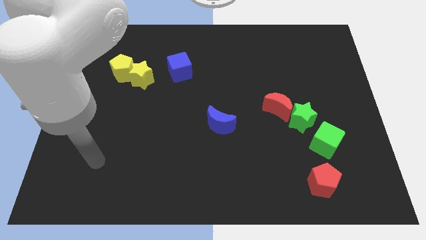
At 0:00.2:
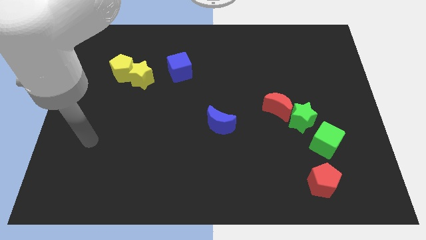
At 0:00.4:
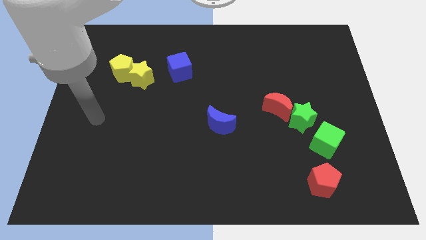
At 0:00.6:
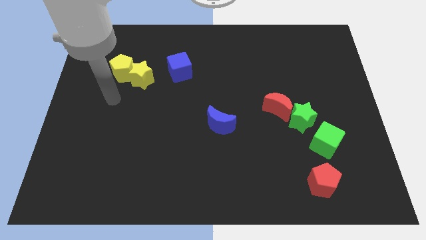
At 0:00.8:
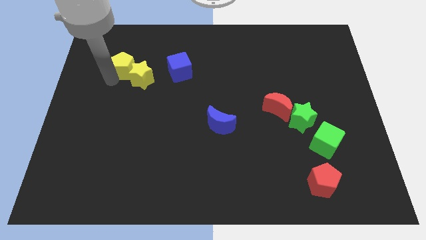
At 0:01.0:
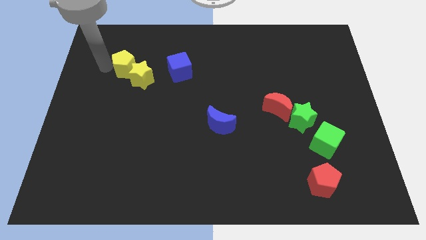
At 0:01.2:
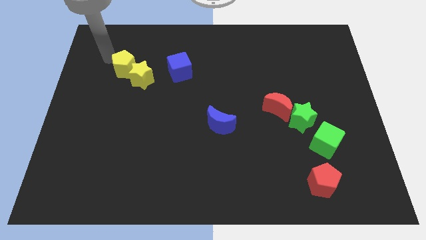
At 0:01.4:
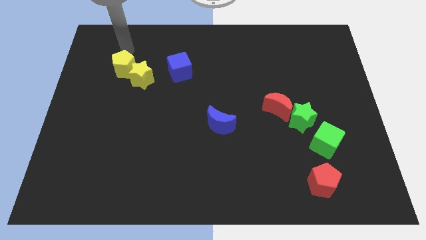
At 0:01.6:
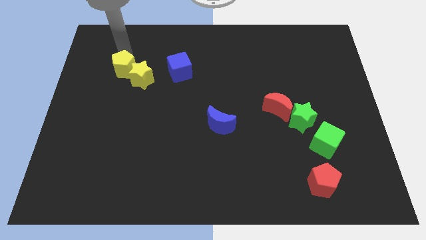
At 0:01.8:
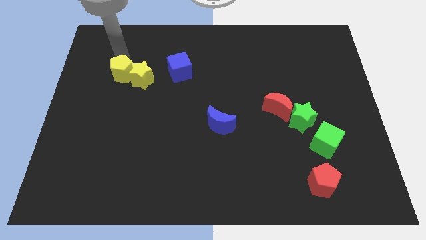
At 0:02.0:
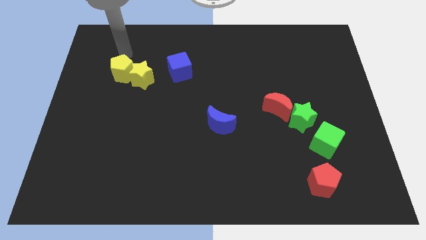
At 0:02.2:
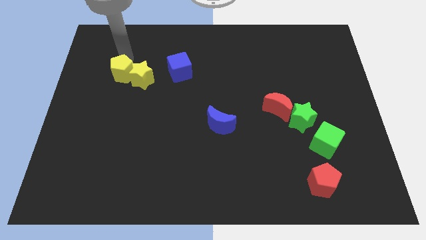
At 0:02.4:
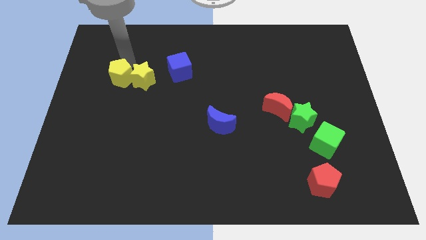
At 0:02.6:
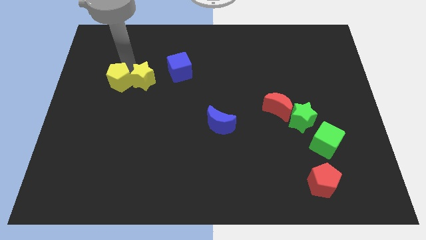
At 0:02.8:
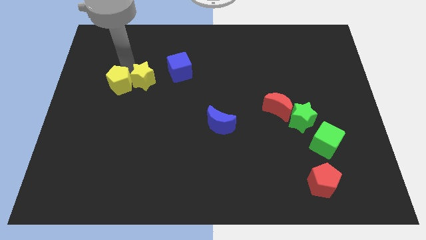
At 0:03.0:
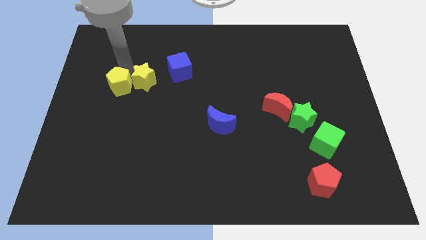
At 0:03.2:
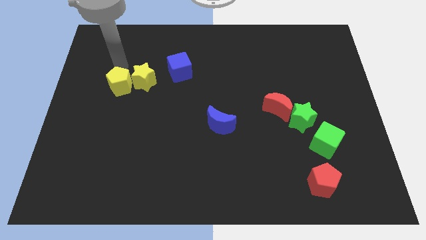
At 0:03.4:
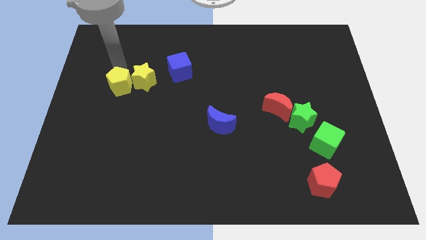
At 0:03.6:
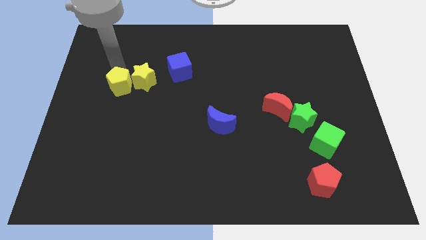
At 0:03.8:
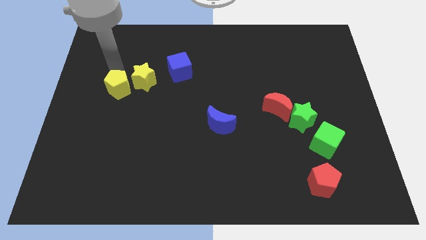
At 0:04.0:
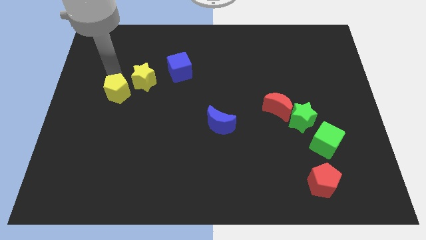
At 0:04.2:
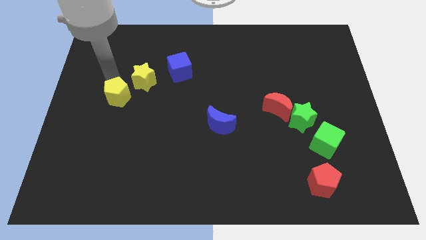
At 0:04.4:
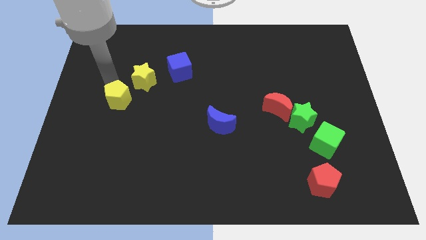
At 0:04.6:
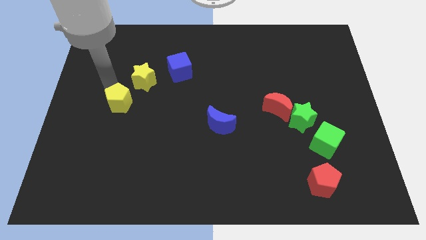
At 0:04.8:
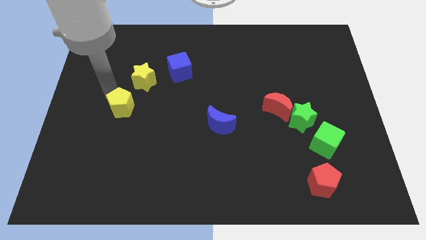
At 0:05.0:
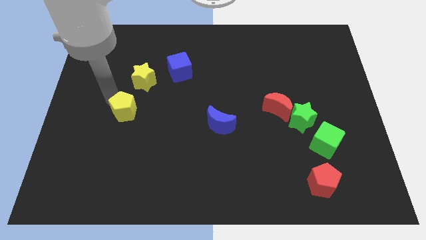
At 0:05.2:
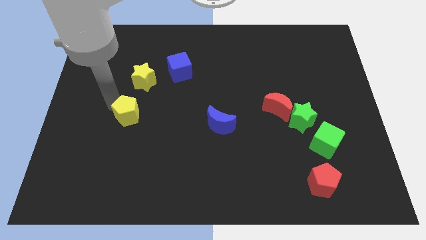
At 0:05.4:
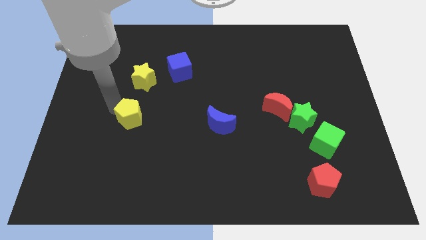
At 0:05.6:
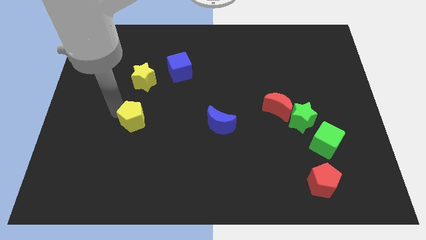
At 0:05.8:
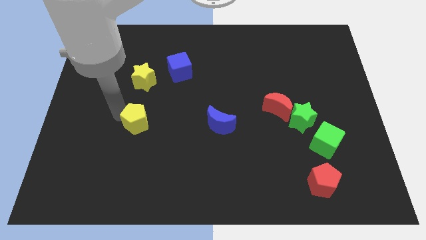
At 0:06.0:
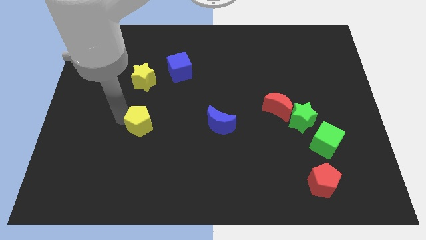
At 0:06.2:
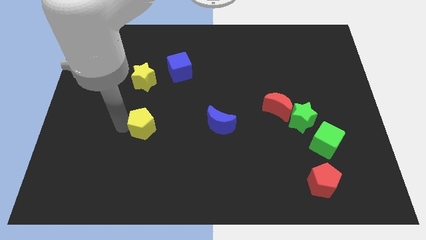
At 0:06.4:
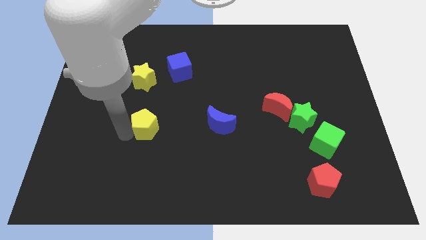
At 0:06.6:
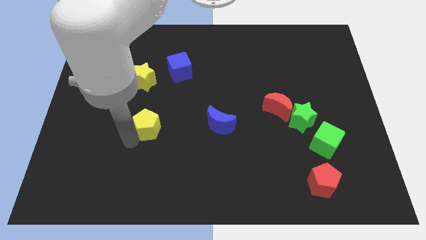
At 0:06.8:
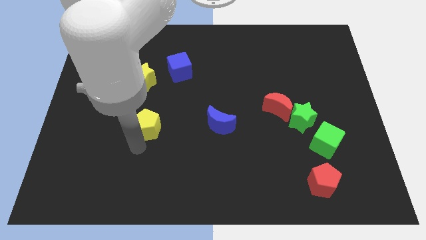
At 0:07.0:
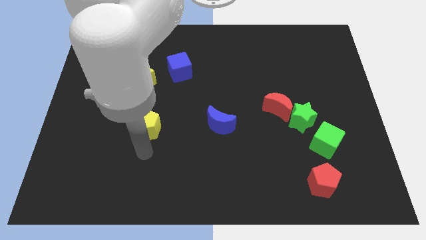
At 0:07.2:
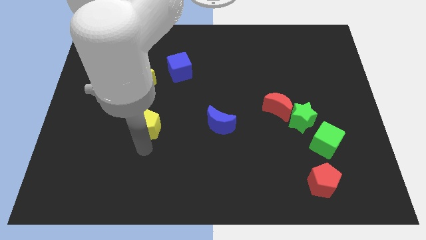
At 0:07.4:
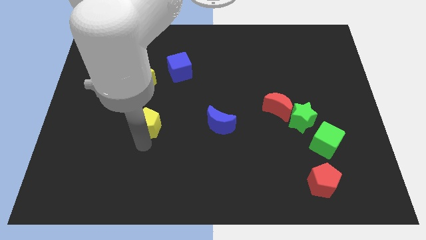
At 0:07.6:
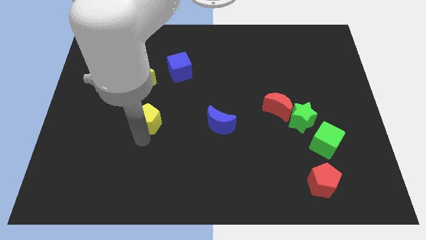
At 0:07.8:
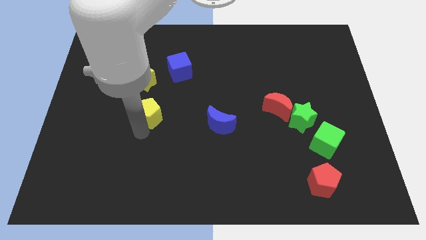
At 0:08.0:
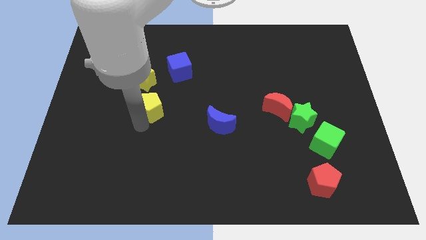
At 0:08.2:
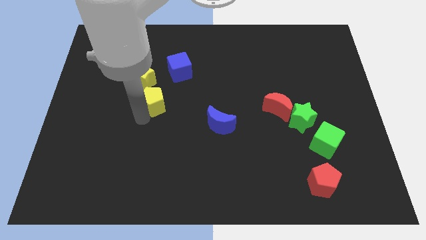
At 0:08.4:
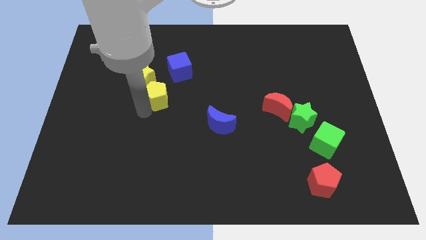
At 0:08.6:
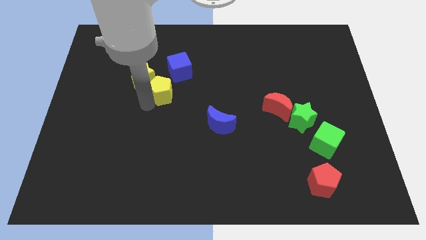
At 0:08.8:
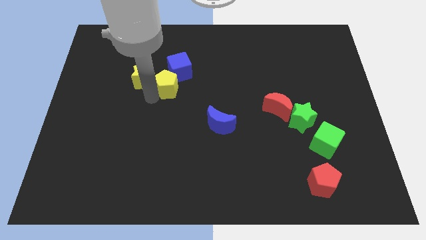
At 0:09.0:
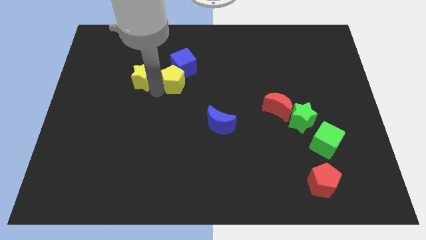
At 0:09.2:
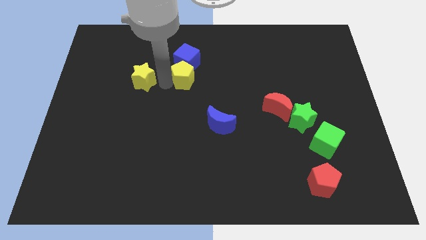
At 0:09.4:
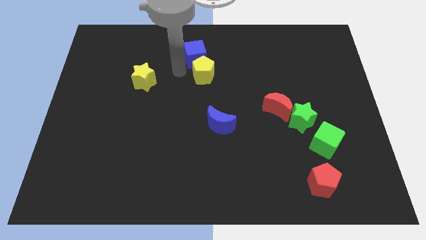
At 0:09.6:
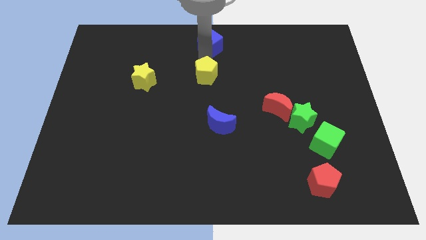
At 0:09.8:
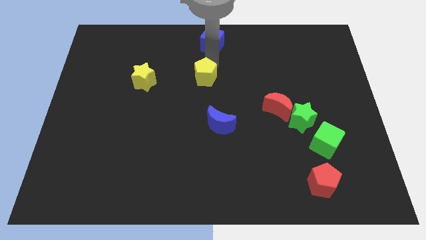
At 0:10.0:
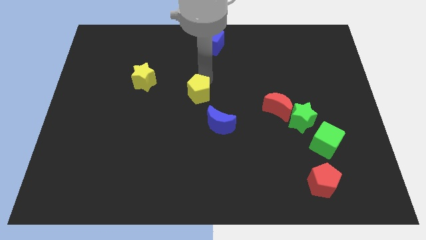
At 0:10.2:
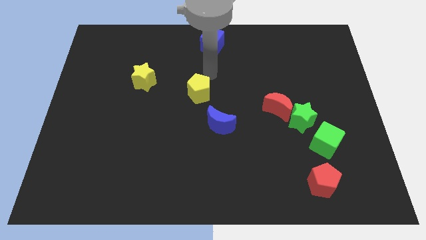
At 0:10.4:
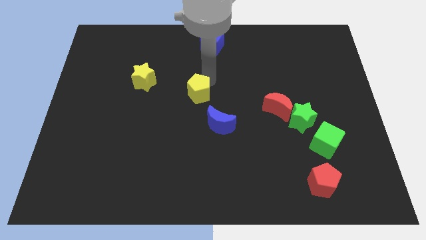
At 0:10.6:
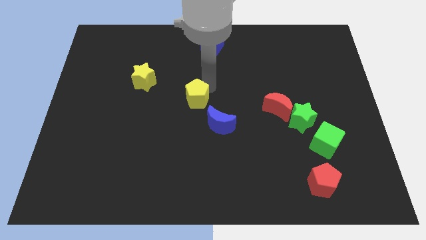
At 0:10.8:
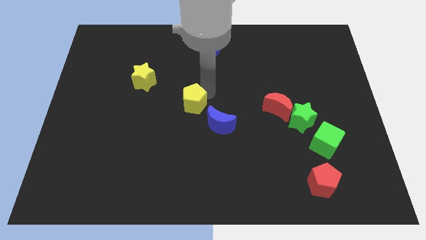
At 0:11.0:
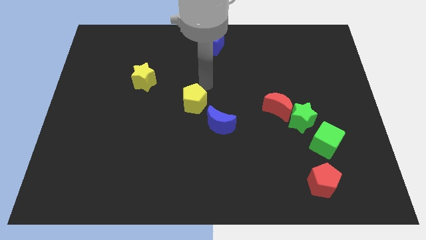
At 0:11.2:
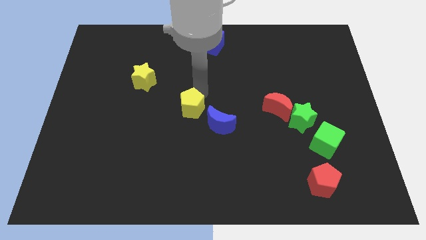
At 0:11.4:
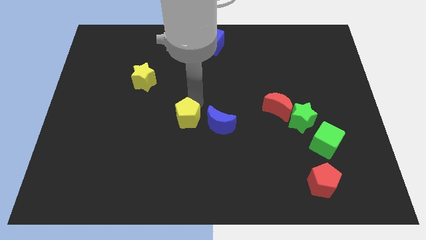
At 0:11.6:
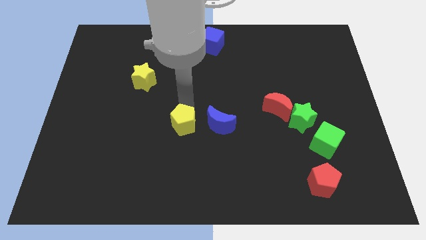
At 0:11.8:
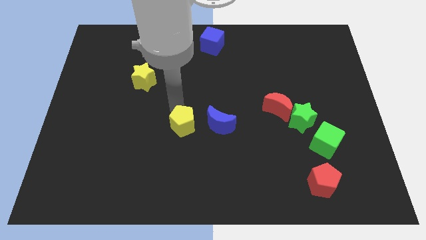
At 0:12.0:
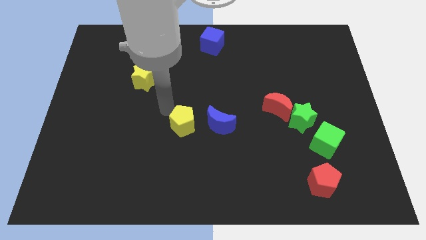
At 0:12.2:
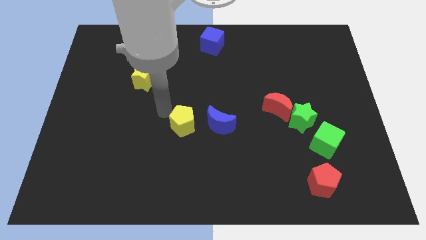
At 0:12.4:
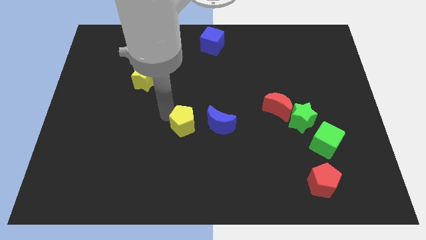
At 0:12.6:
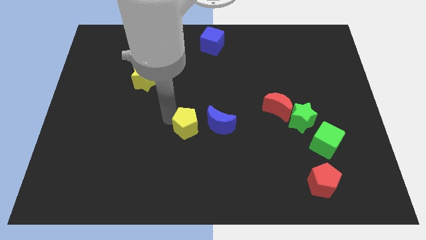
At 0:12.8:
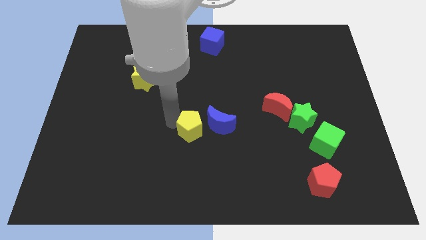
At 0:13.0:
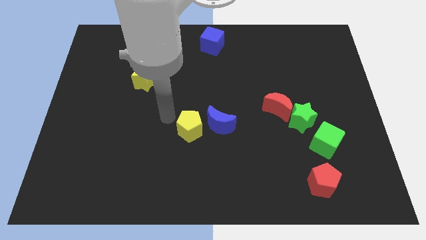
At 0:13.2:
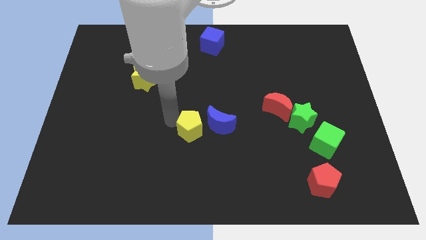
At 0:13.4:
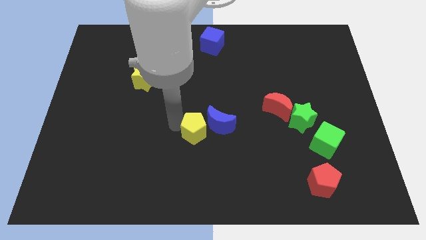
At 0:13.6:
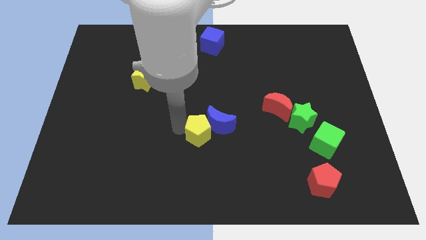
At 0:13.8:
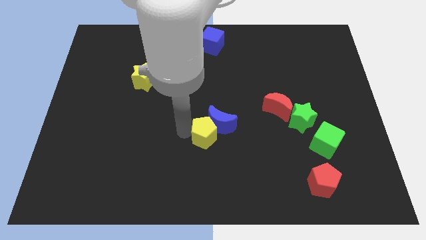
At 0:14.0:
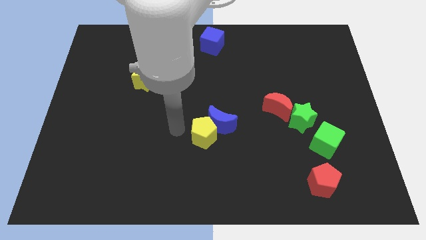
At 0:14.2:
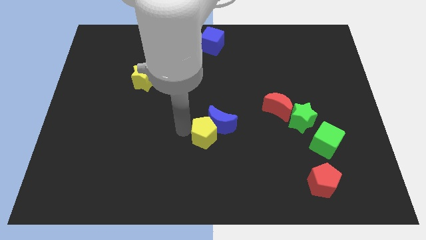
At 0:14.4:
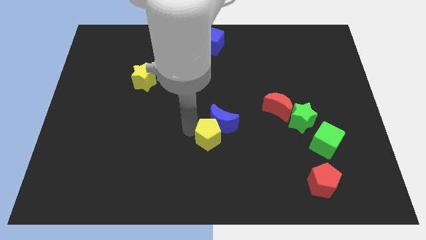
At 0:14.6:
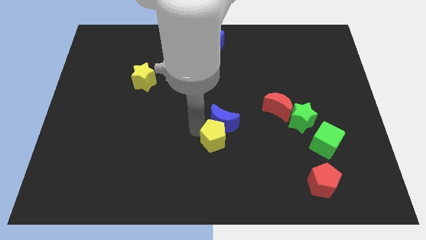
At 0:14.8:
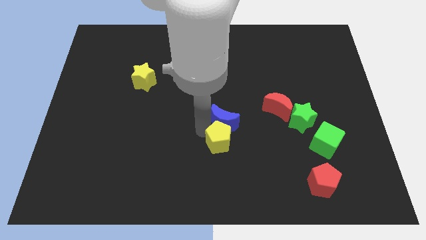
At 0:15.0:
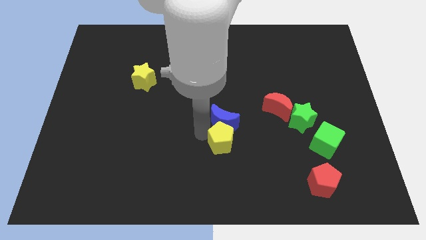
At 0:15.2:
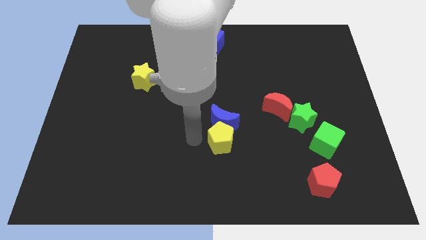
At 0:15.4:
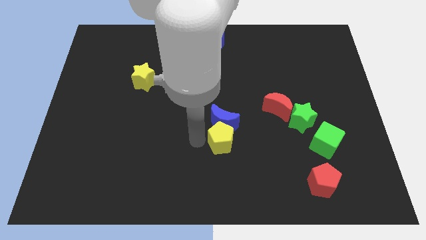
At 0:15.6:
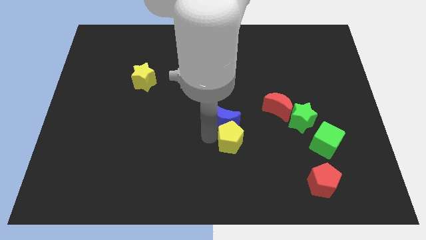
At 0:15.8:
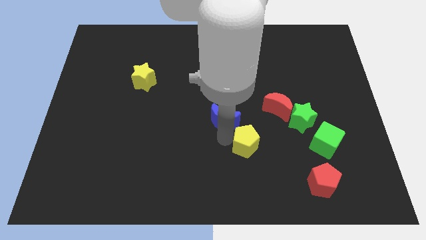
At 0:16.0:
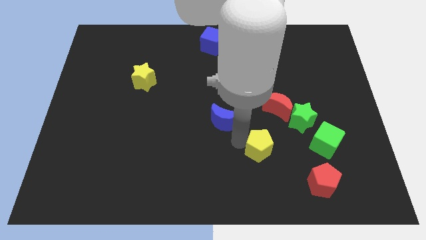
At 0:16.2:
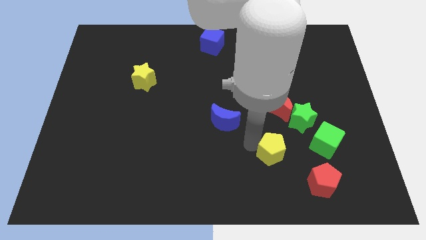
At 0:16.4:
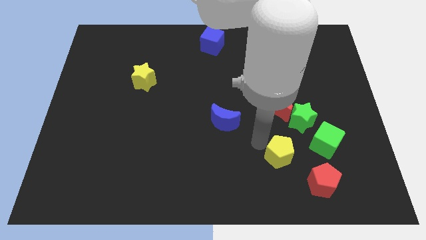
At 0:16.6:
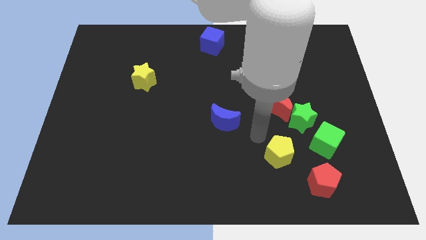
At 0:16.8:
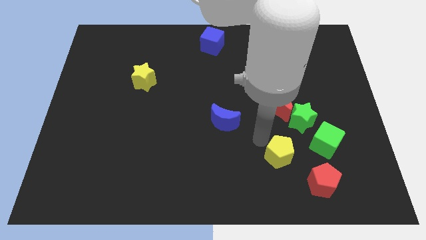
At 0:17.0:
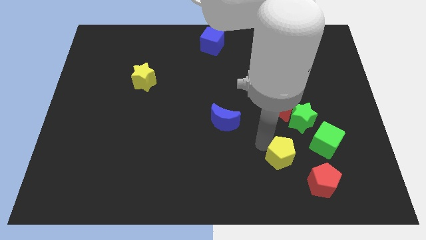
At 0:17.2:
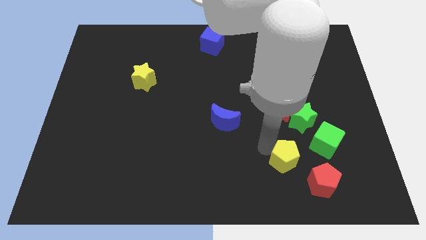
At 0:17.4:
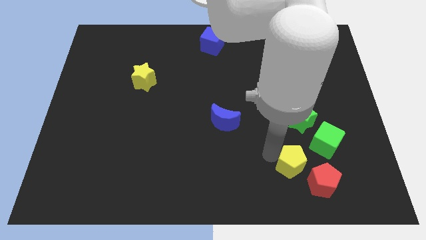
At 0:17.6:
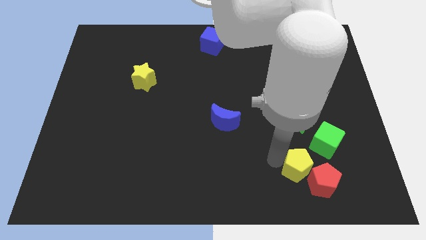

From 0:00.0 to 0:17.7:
put the yellow pentagon close to the red pentagon
